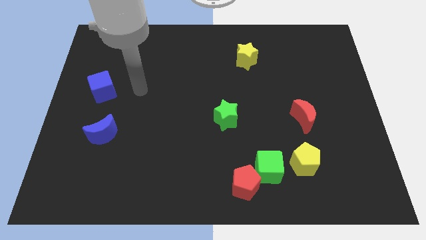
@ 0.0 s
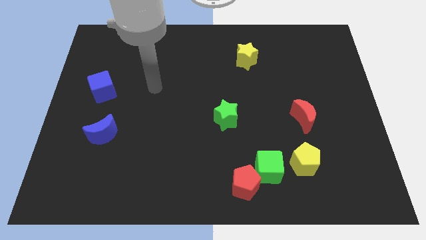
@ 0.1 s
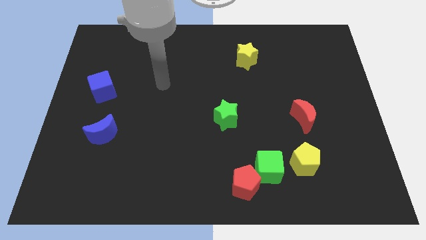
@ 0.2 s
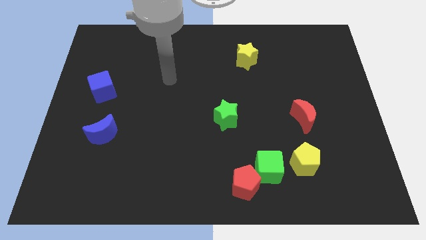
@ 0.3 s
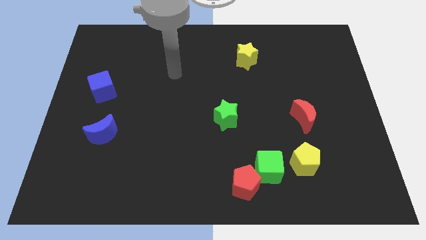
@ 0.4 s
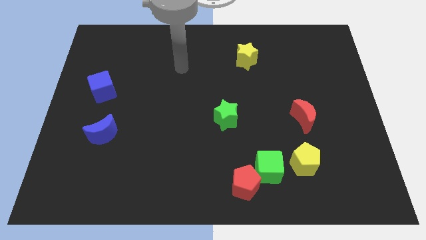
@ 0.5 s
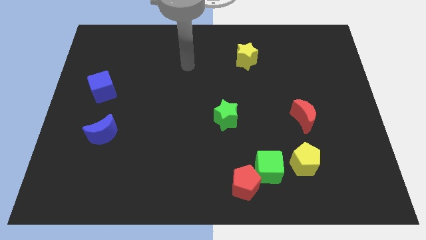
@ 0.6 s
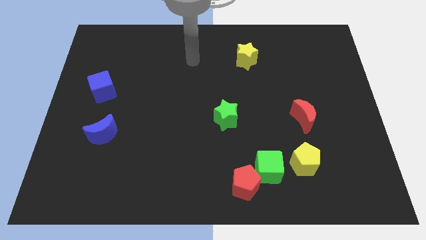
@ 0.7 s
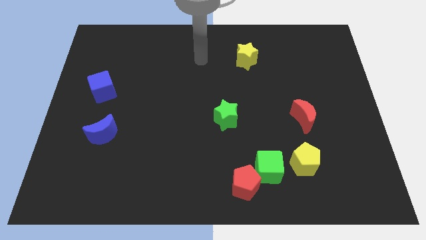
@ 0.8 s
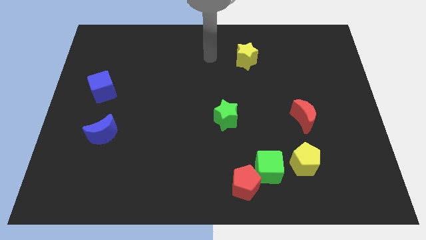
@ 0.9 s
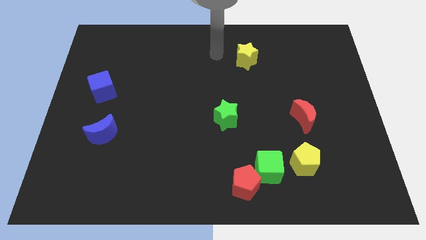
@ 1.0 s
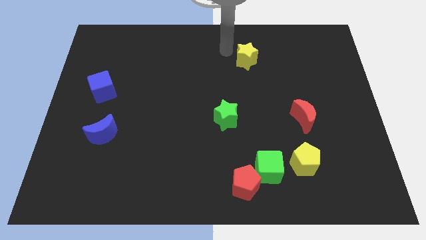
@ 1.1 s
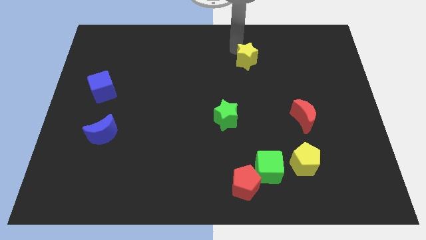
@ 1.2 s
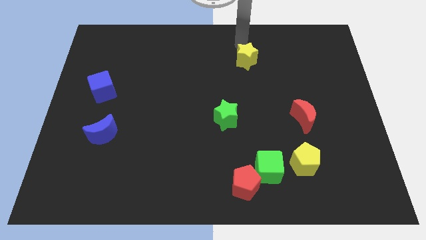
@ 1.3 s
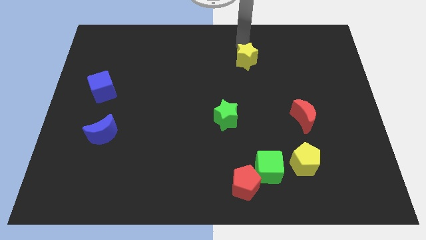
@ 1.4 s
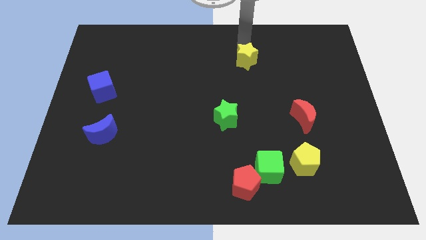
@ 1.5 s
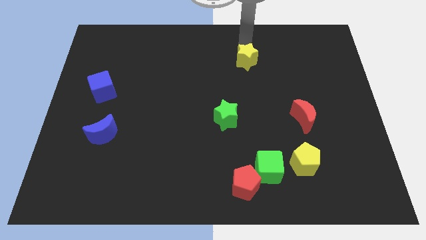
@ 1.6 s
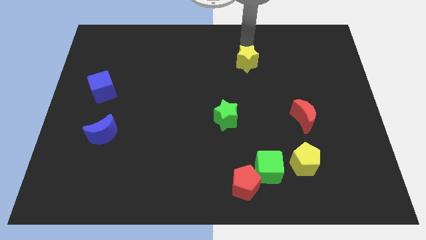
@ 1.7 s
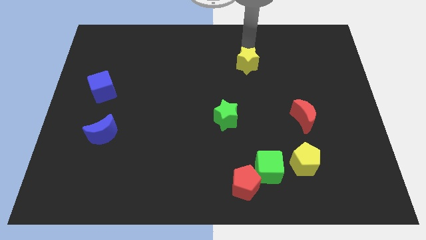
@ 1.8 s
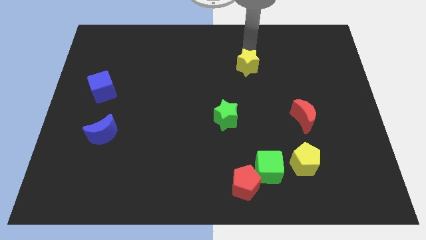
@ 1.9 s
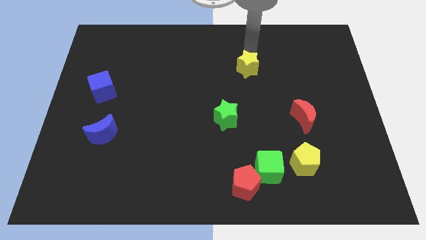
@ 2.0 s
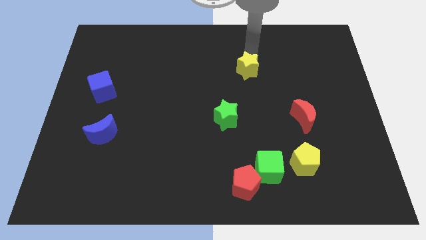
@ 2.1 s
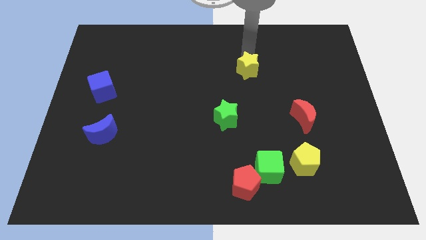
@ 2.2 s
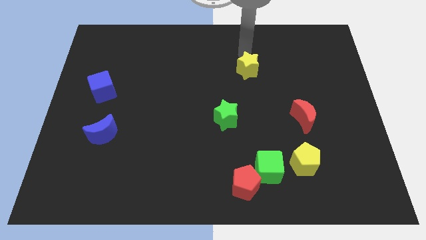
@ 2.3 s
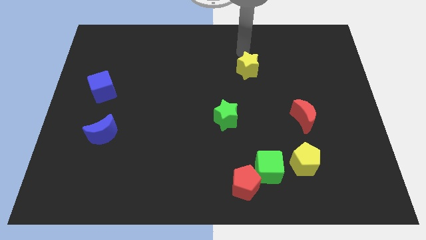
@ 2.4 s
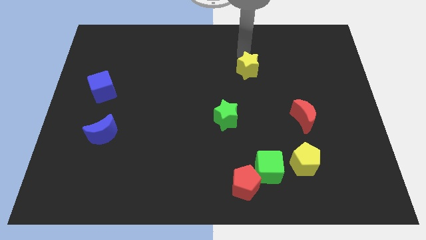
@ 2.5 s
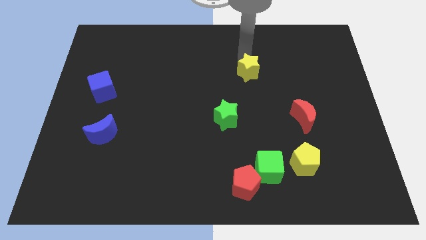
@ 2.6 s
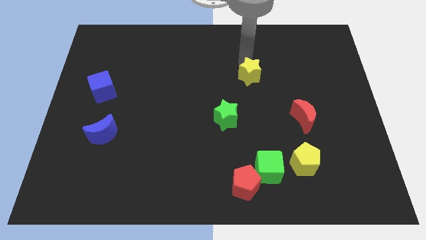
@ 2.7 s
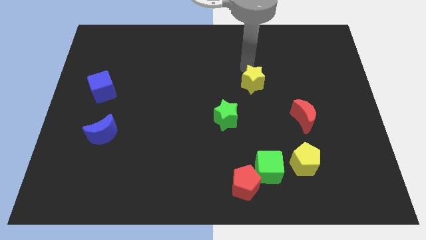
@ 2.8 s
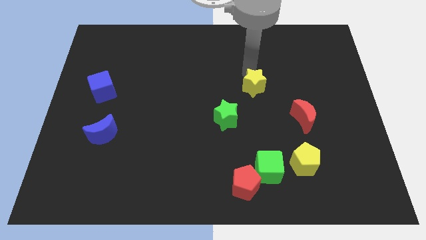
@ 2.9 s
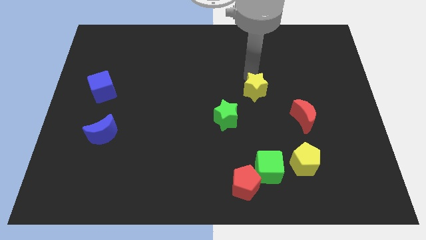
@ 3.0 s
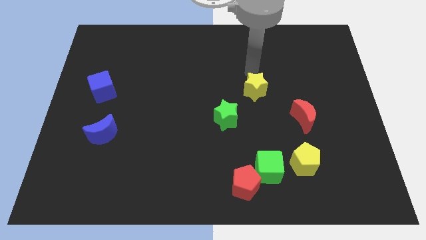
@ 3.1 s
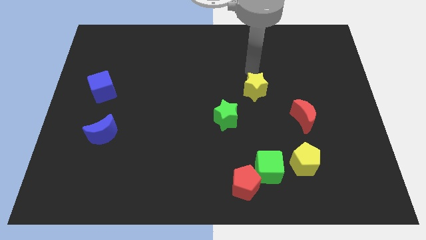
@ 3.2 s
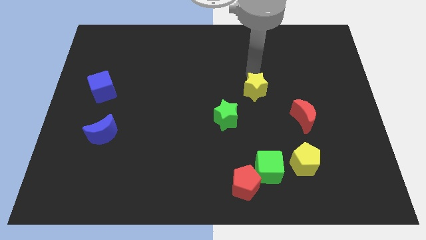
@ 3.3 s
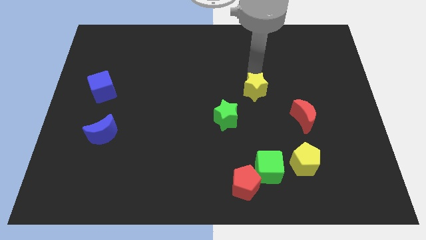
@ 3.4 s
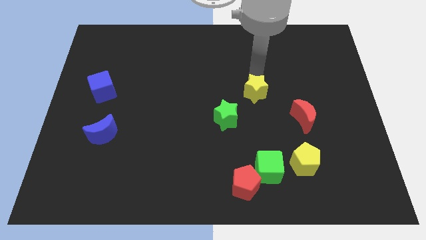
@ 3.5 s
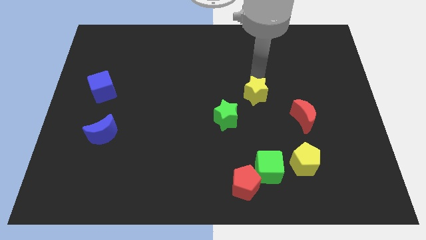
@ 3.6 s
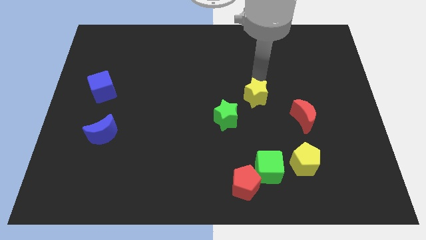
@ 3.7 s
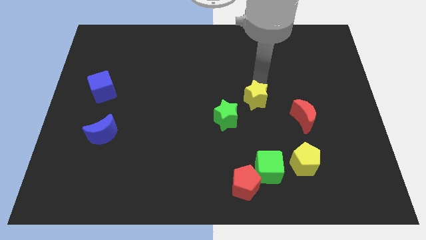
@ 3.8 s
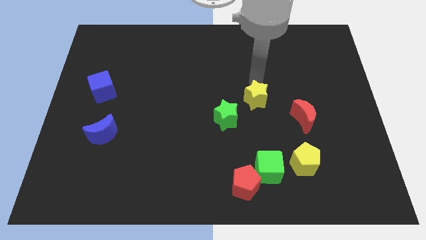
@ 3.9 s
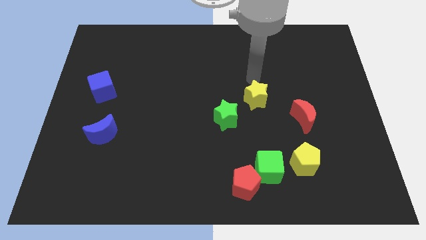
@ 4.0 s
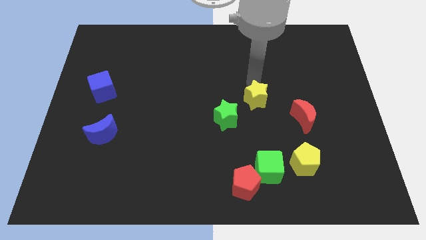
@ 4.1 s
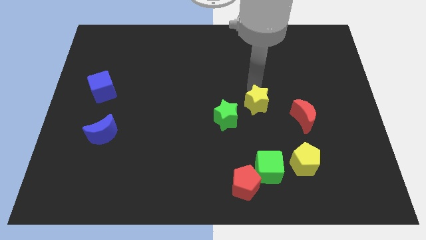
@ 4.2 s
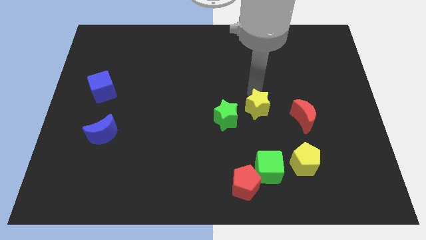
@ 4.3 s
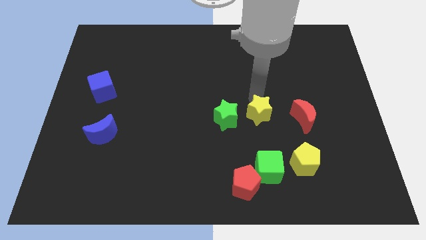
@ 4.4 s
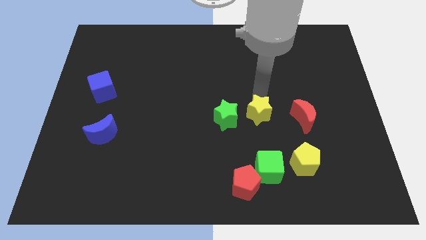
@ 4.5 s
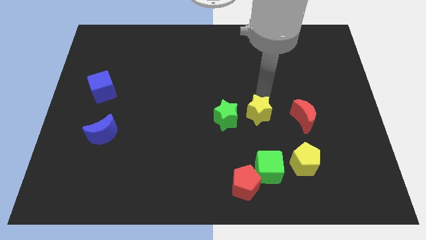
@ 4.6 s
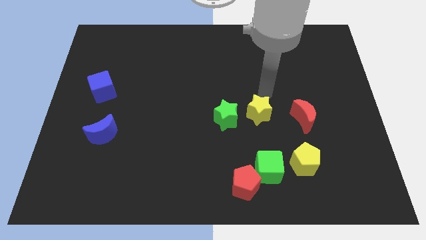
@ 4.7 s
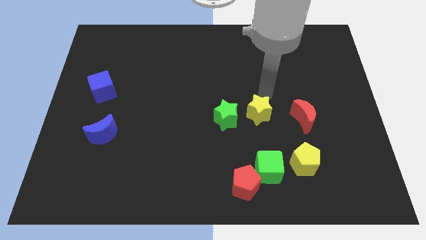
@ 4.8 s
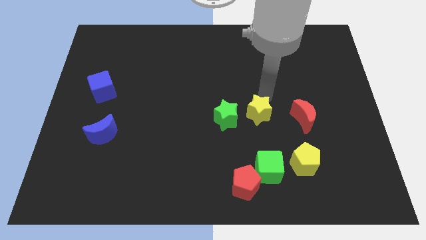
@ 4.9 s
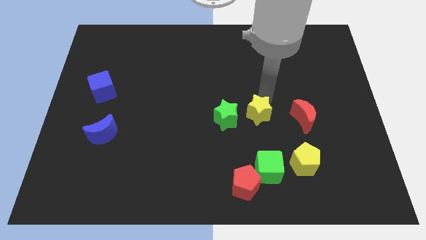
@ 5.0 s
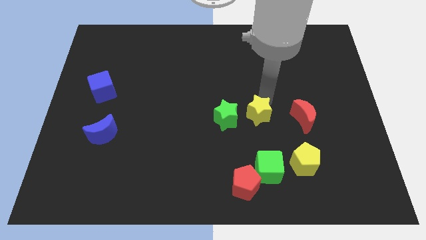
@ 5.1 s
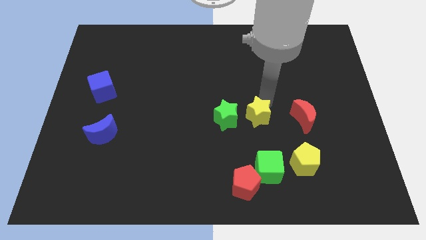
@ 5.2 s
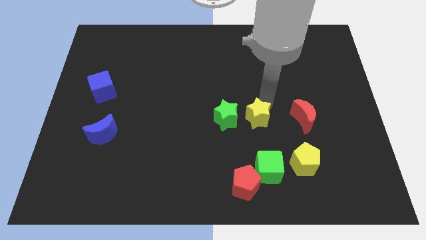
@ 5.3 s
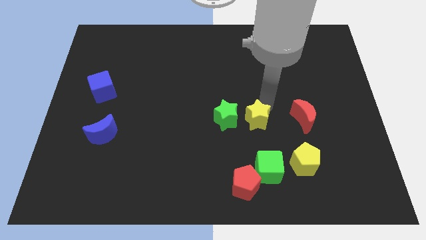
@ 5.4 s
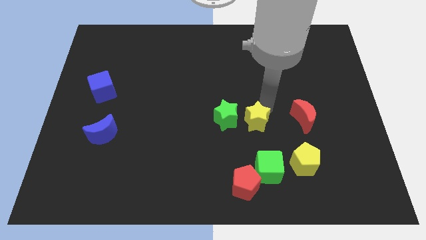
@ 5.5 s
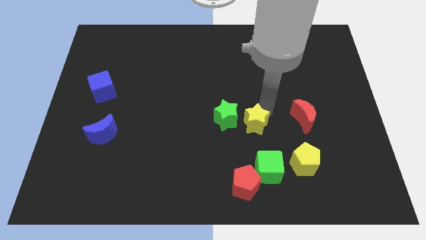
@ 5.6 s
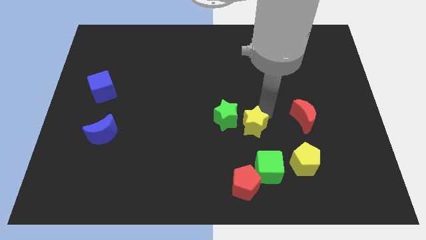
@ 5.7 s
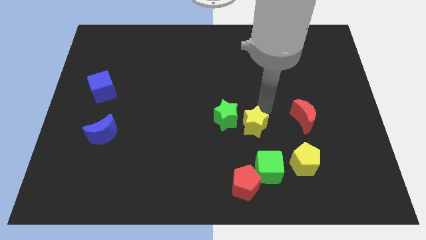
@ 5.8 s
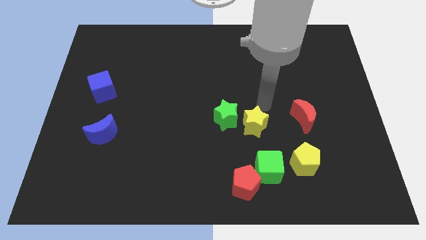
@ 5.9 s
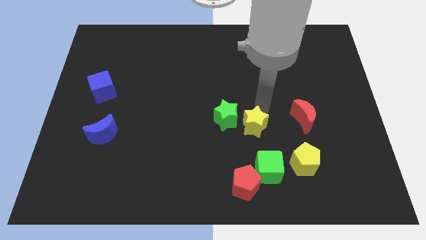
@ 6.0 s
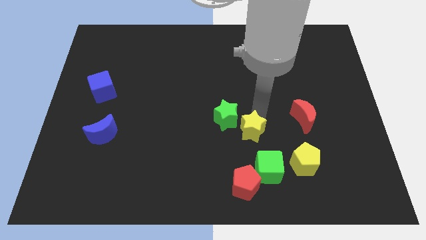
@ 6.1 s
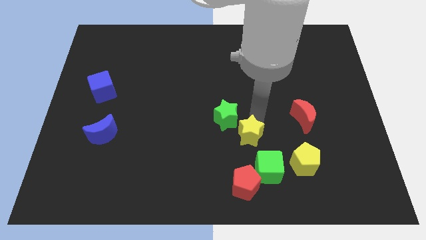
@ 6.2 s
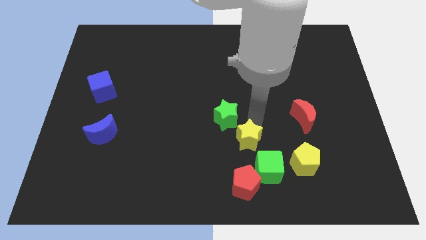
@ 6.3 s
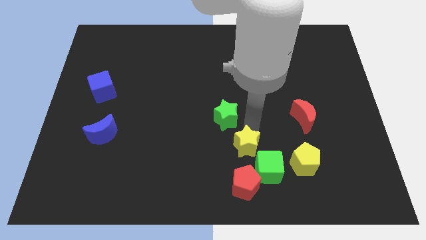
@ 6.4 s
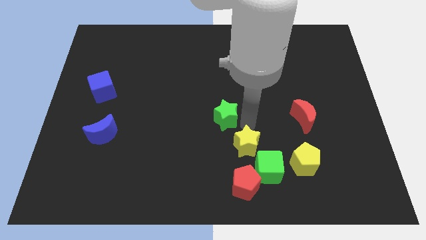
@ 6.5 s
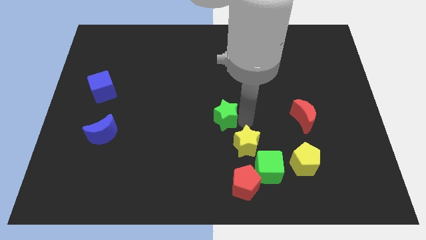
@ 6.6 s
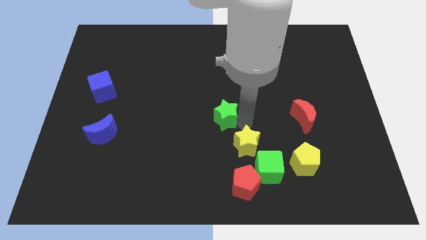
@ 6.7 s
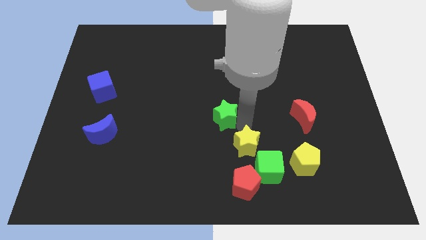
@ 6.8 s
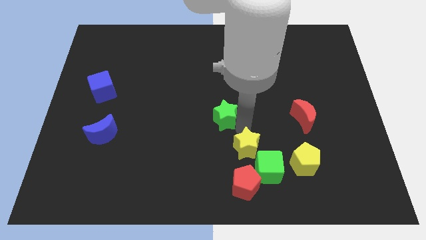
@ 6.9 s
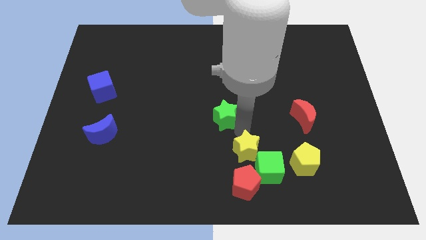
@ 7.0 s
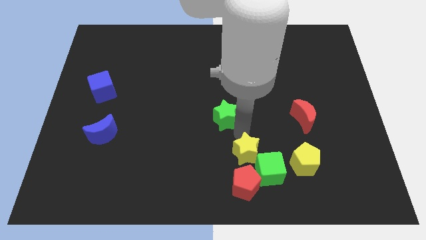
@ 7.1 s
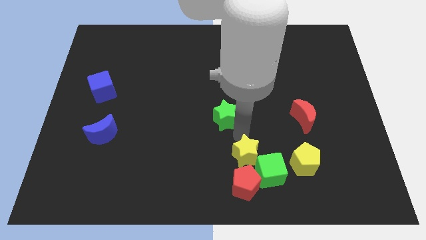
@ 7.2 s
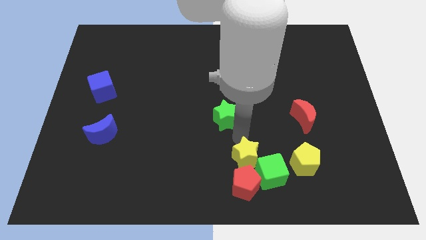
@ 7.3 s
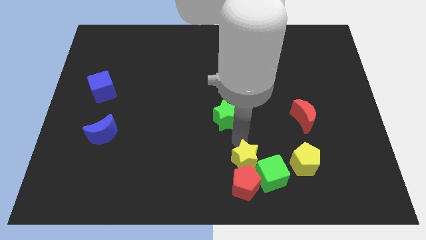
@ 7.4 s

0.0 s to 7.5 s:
slide the yellow star close to the red pentagon
